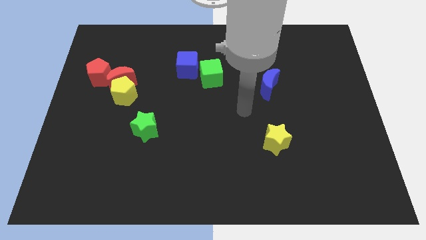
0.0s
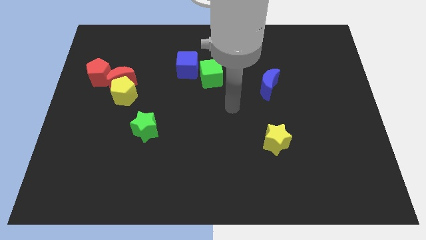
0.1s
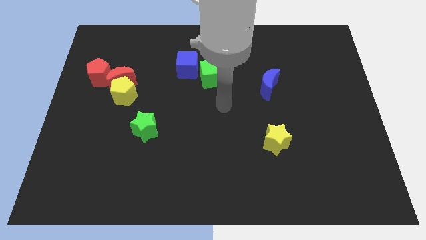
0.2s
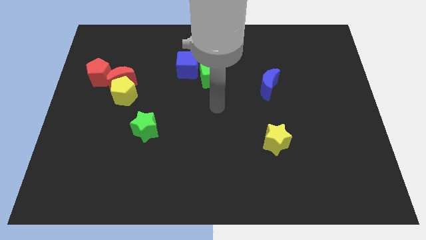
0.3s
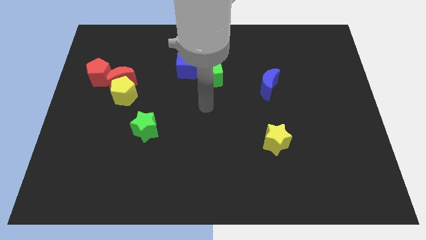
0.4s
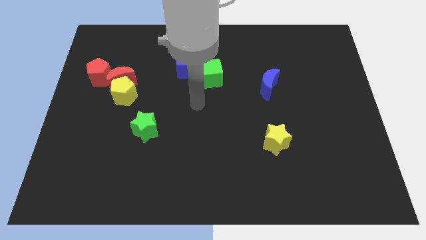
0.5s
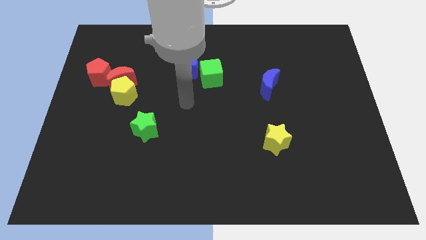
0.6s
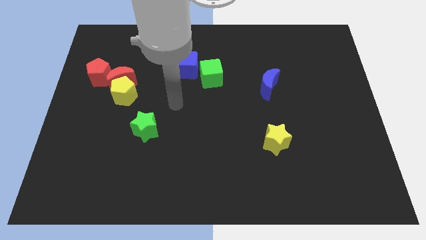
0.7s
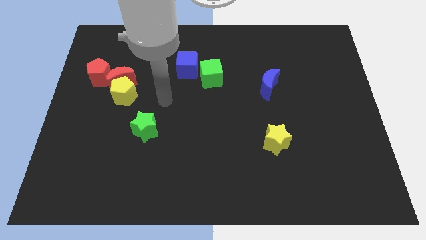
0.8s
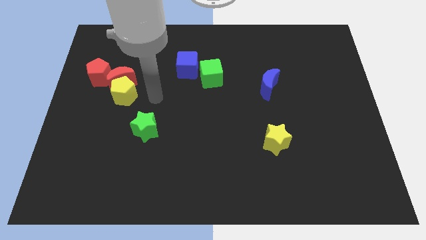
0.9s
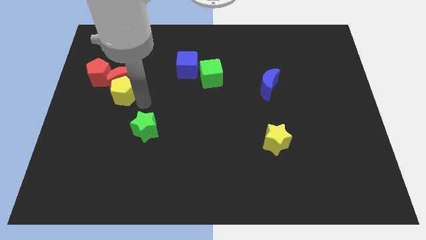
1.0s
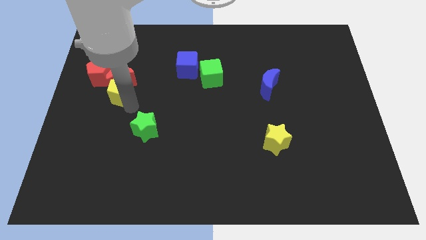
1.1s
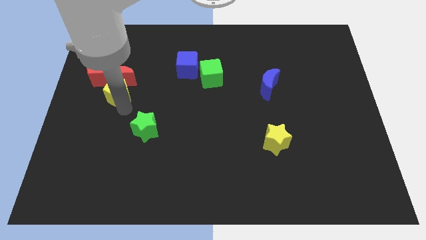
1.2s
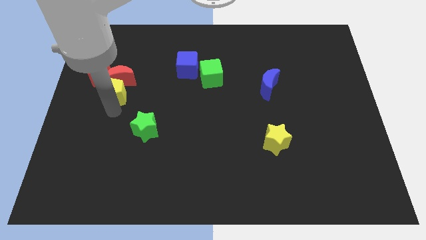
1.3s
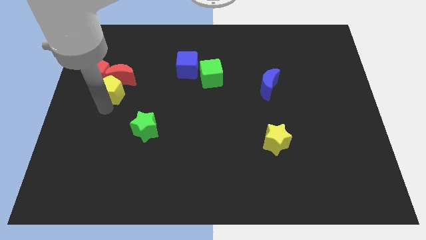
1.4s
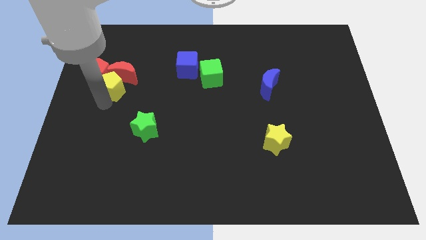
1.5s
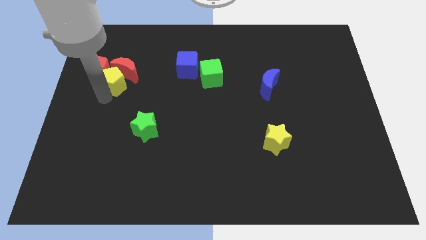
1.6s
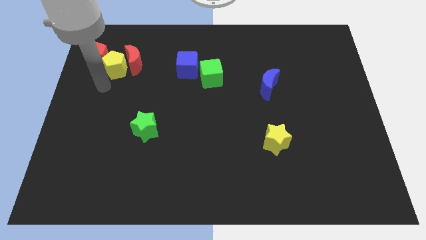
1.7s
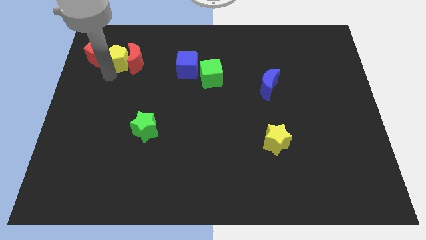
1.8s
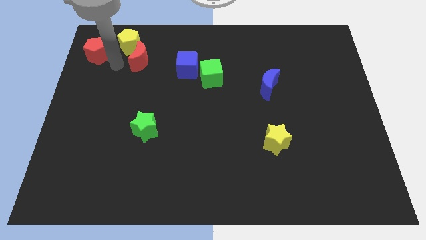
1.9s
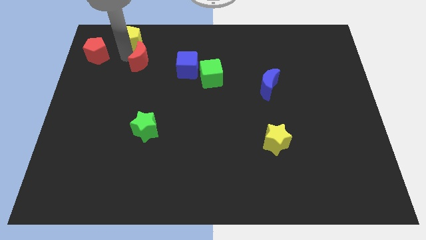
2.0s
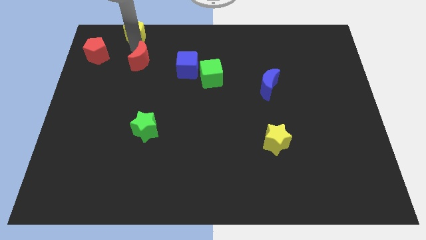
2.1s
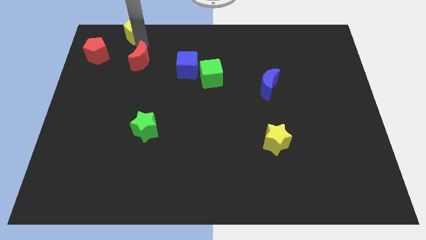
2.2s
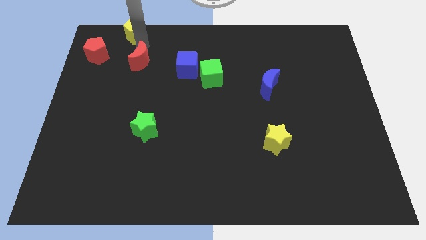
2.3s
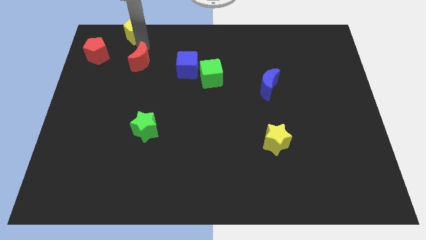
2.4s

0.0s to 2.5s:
pull the red moon apart from the yellow pentagon and red pentagon

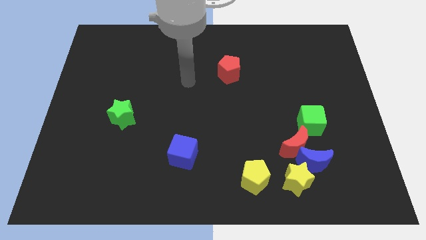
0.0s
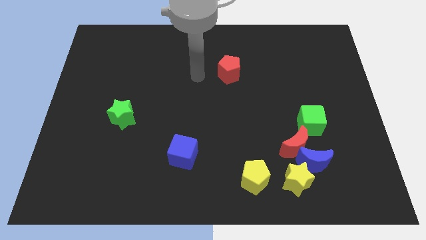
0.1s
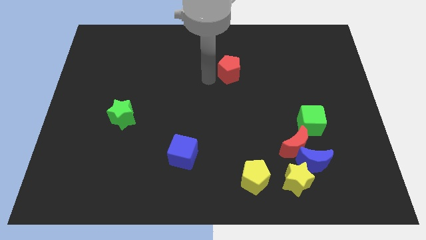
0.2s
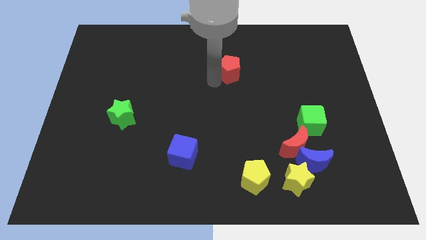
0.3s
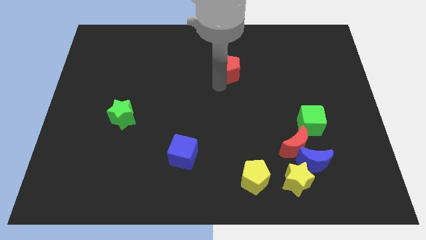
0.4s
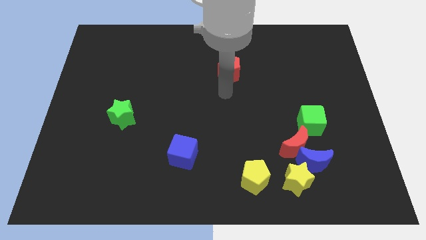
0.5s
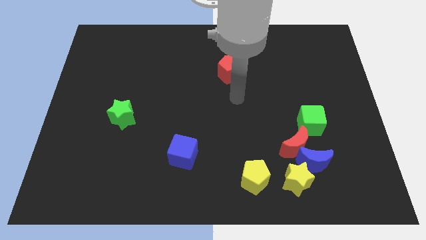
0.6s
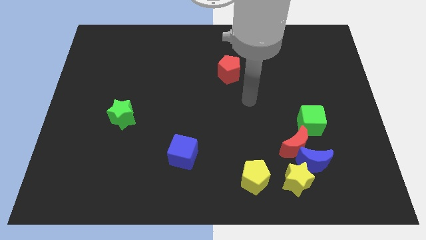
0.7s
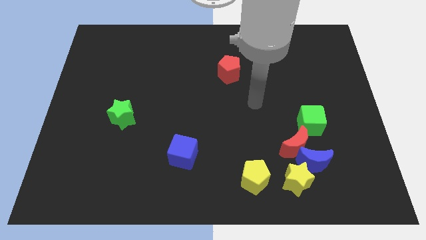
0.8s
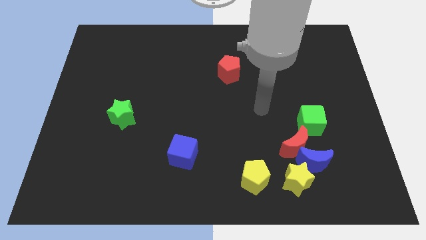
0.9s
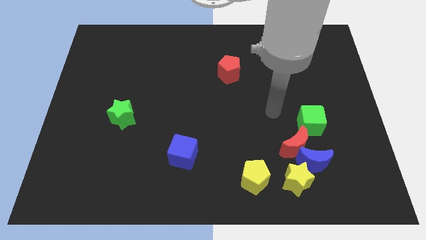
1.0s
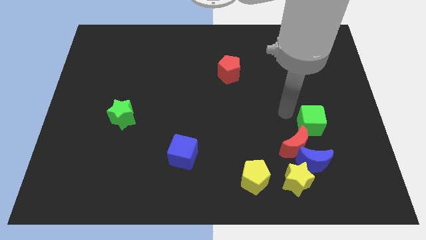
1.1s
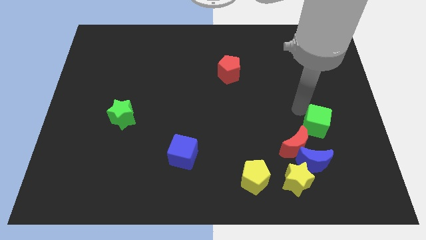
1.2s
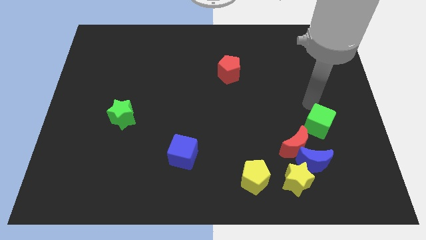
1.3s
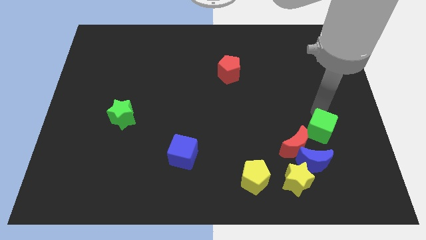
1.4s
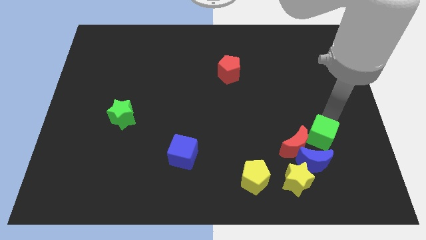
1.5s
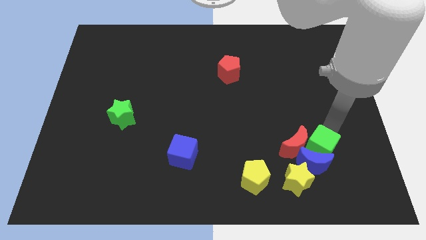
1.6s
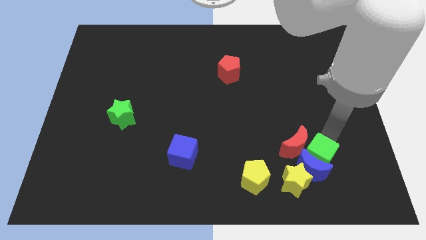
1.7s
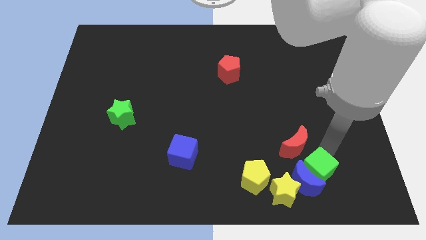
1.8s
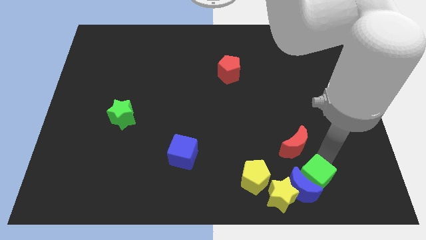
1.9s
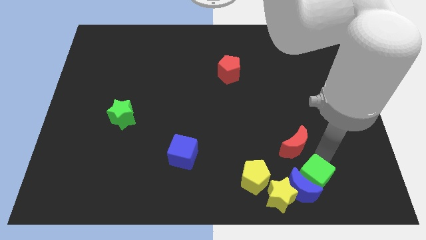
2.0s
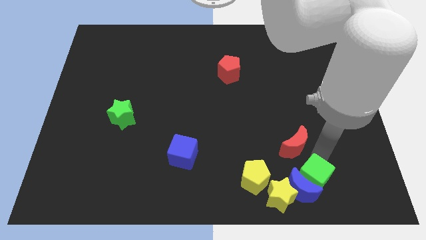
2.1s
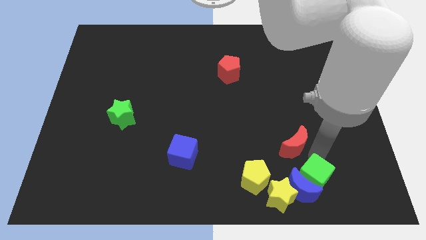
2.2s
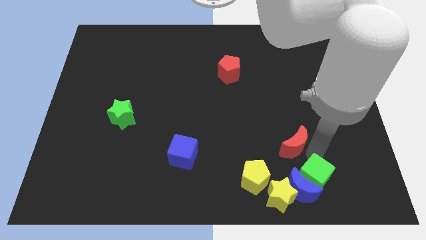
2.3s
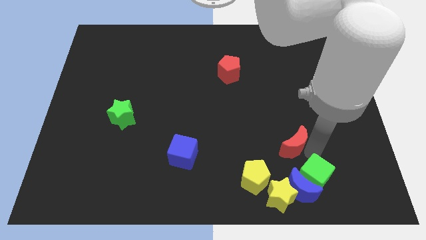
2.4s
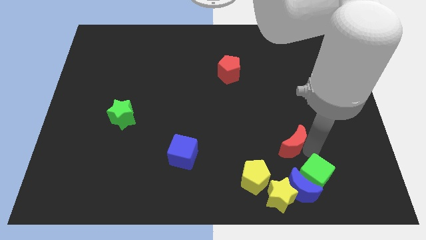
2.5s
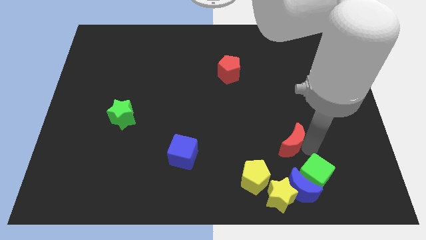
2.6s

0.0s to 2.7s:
move the red moon away from the group

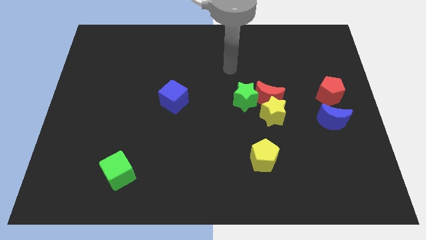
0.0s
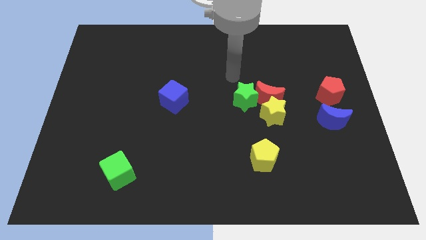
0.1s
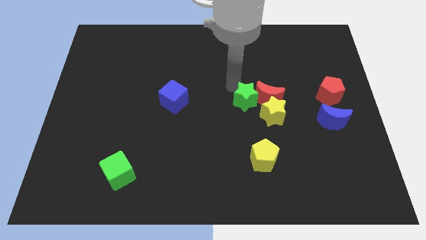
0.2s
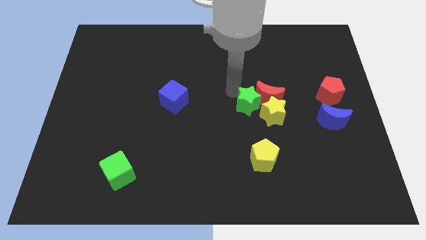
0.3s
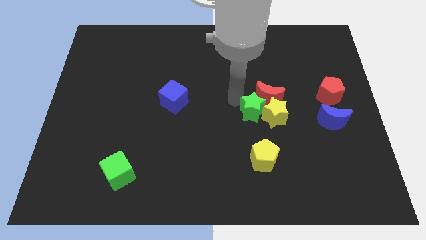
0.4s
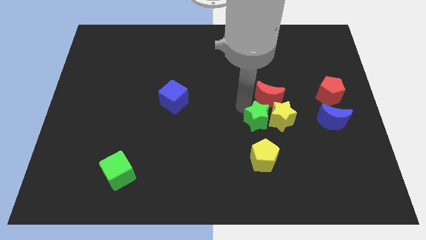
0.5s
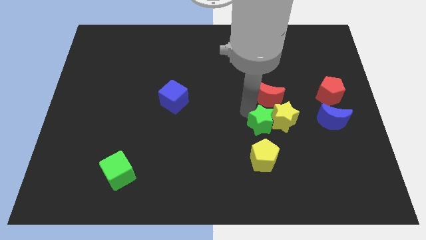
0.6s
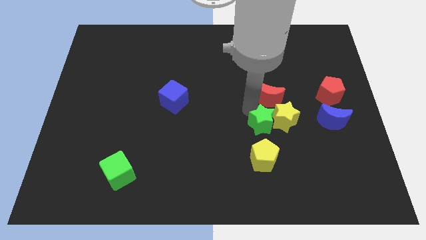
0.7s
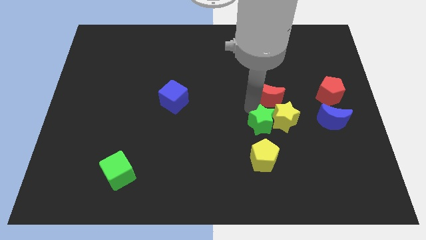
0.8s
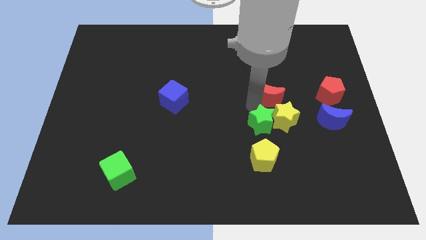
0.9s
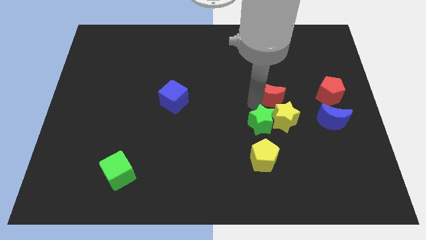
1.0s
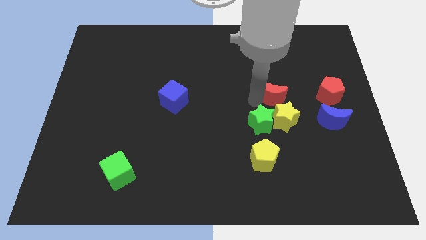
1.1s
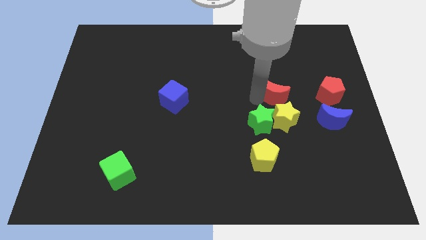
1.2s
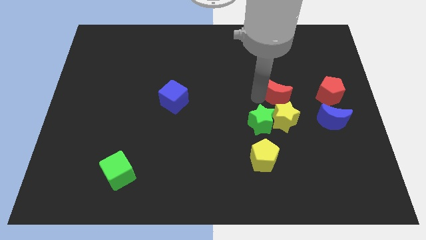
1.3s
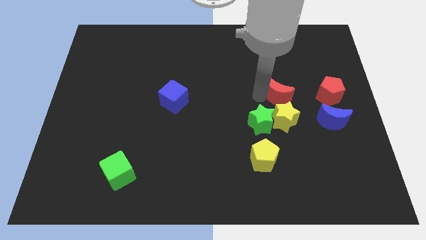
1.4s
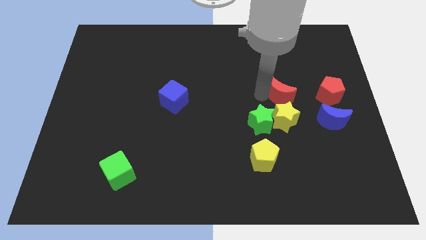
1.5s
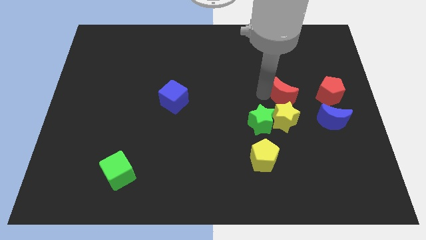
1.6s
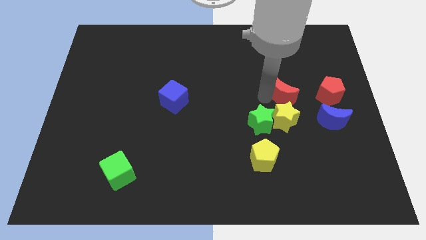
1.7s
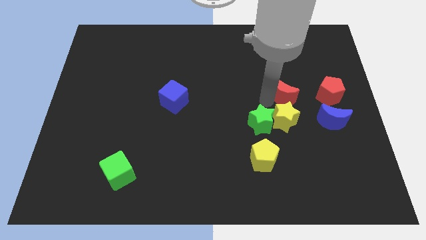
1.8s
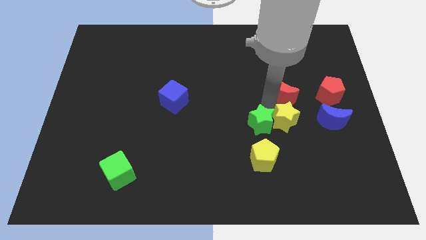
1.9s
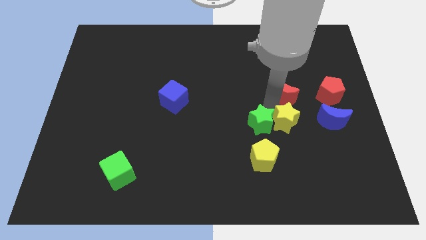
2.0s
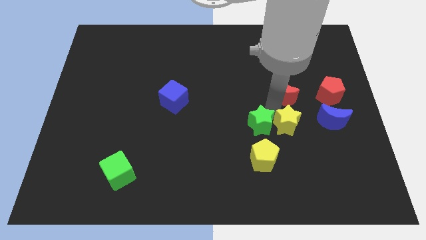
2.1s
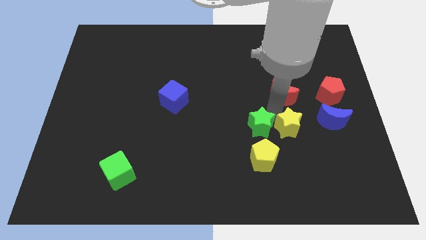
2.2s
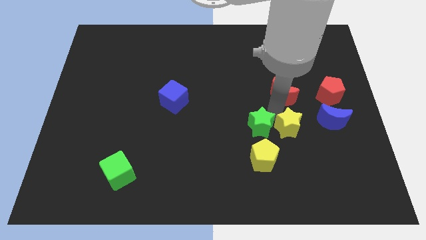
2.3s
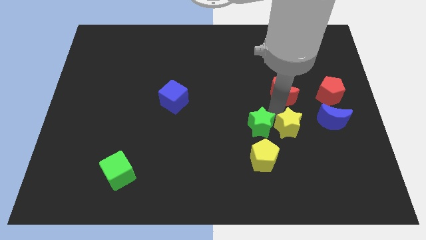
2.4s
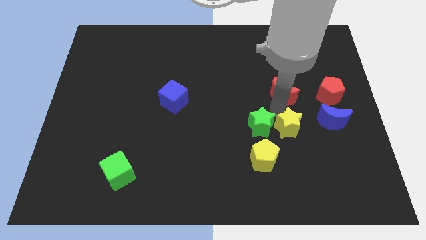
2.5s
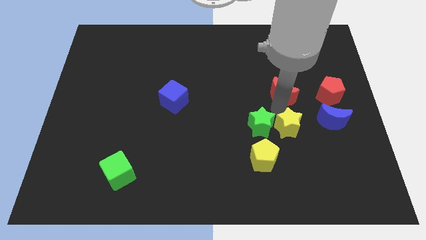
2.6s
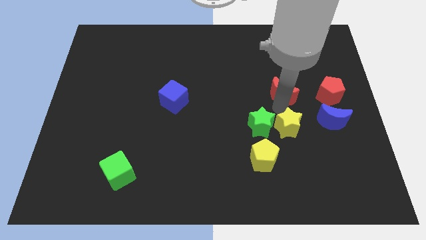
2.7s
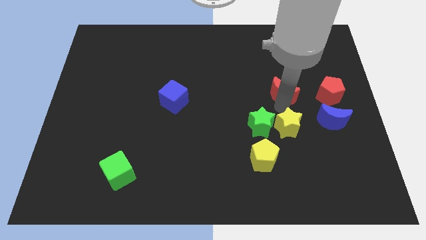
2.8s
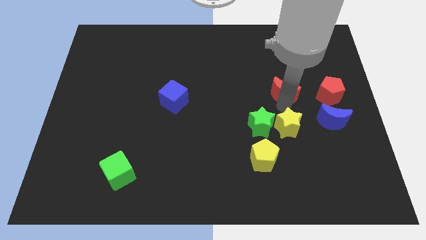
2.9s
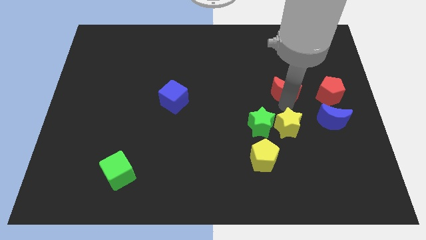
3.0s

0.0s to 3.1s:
separate the red moon from the yellow star and green star

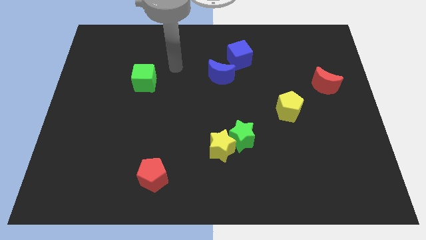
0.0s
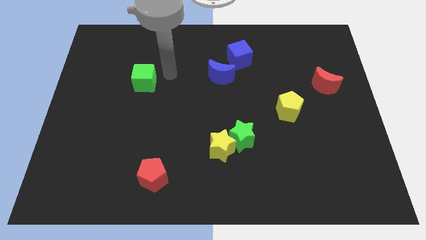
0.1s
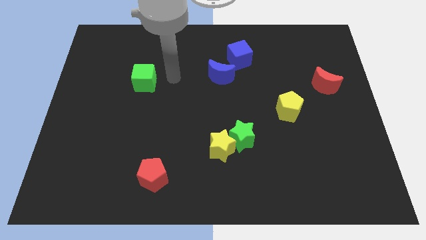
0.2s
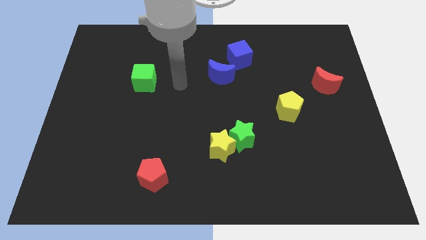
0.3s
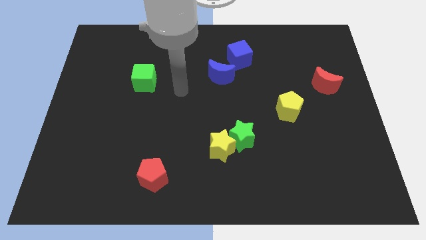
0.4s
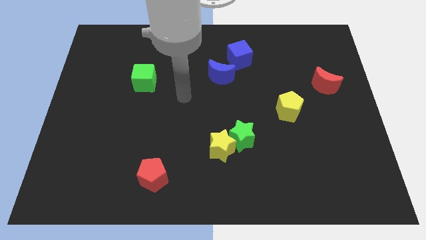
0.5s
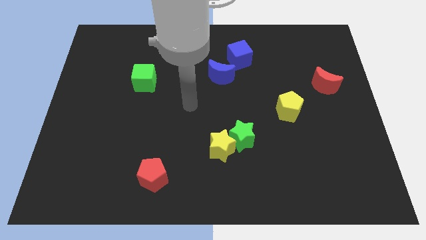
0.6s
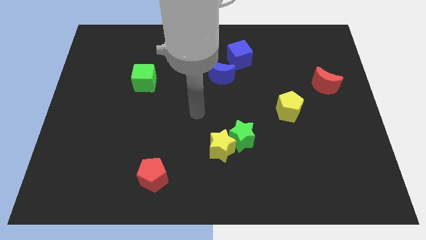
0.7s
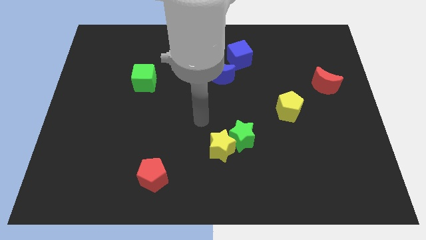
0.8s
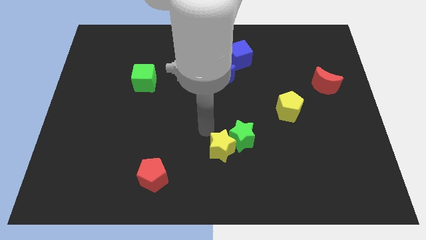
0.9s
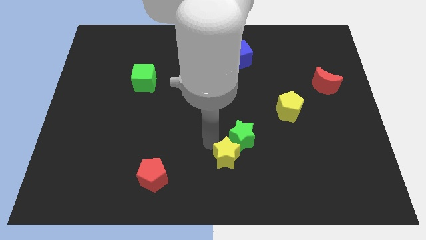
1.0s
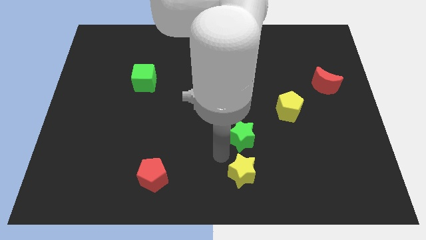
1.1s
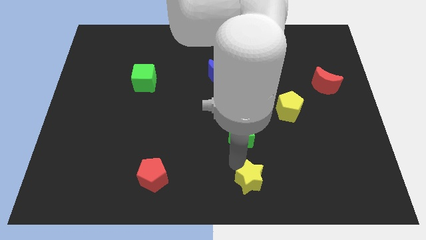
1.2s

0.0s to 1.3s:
separate the green star from the yellow star
